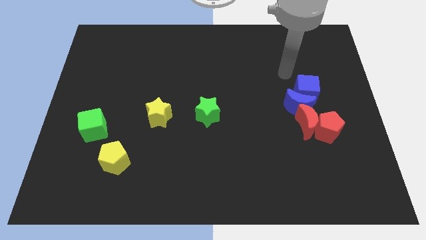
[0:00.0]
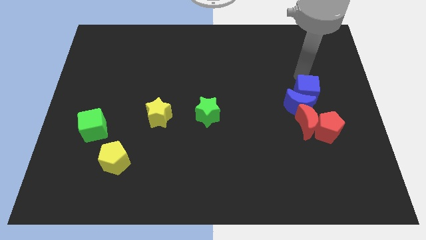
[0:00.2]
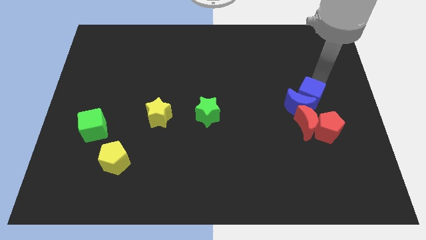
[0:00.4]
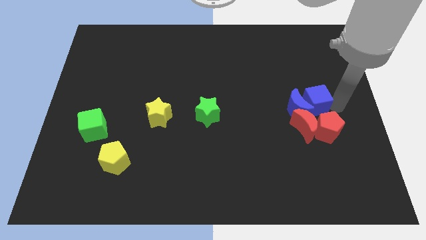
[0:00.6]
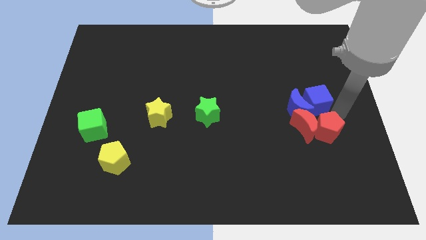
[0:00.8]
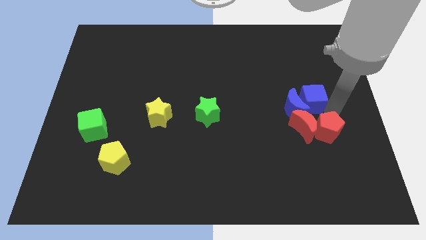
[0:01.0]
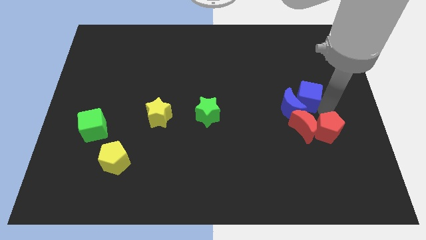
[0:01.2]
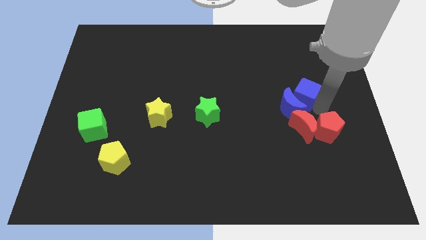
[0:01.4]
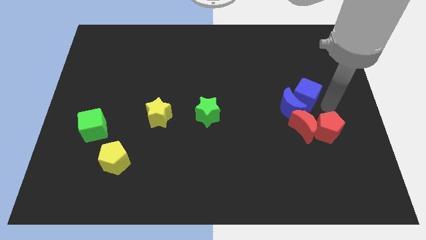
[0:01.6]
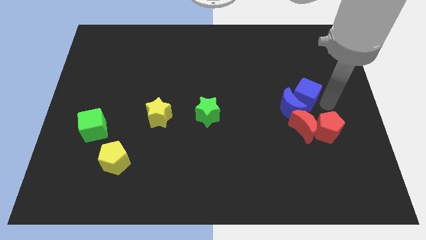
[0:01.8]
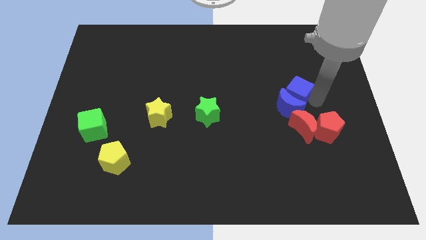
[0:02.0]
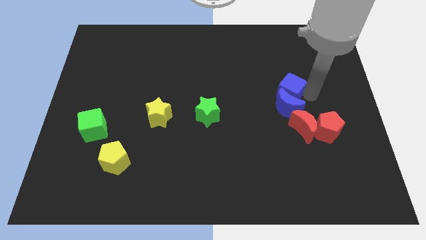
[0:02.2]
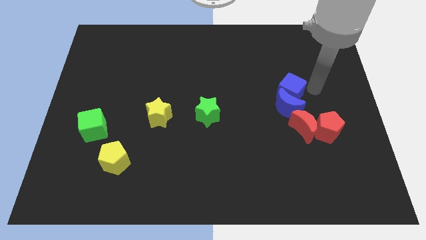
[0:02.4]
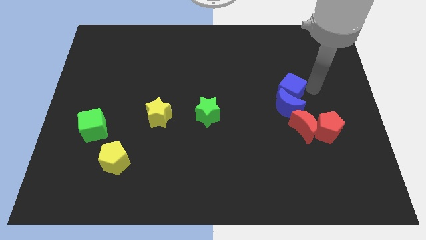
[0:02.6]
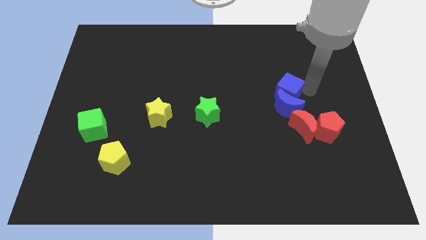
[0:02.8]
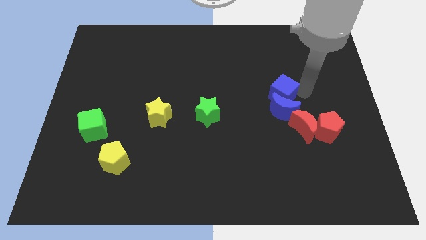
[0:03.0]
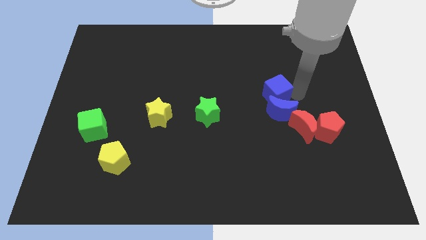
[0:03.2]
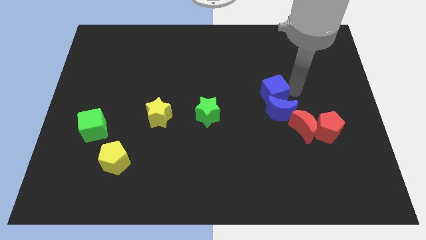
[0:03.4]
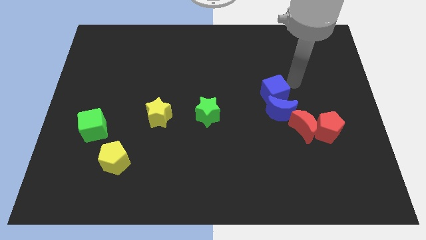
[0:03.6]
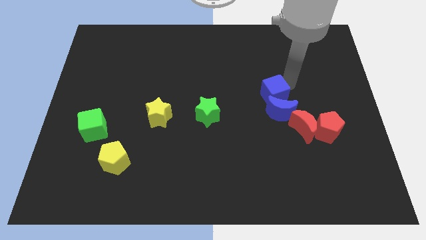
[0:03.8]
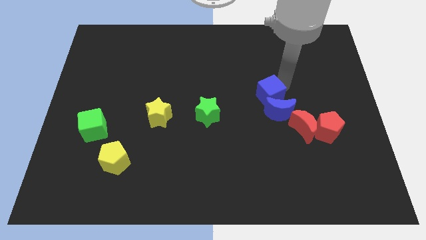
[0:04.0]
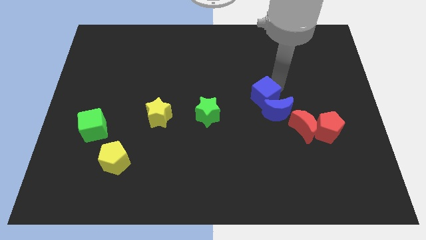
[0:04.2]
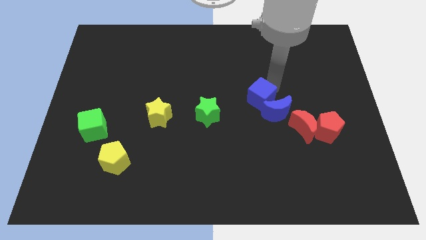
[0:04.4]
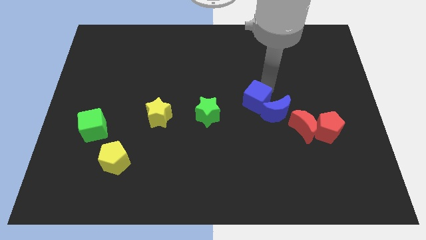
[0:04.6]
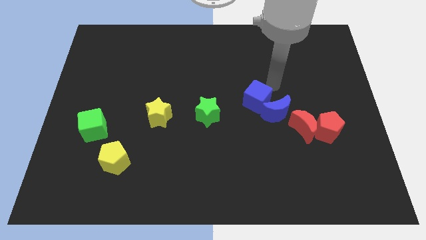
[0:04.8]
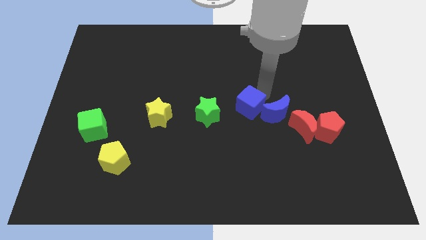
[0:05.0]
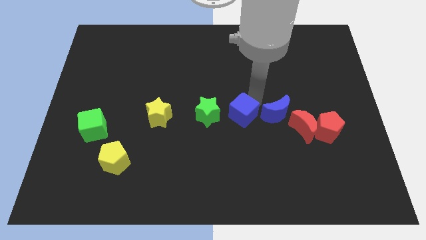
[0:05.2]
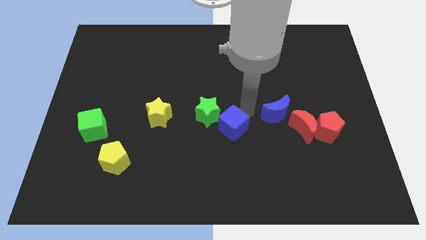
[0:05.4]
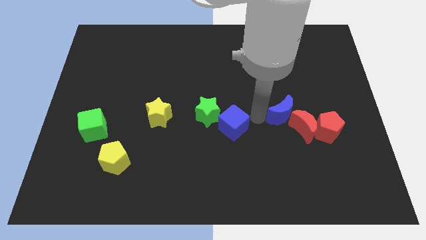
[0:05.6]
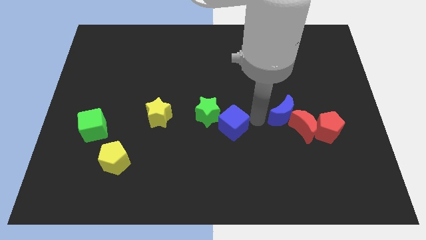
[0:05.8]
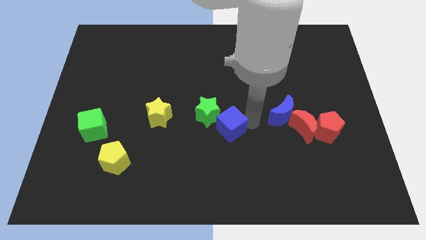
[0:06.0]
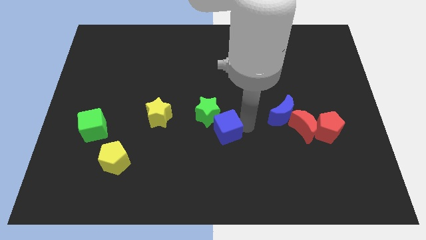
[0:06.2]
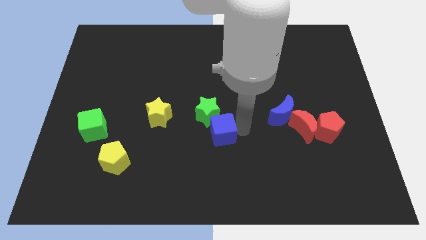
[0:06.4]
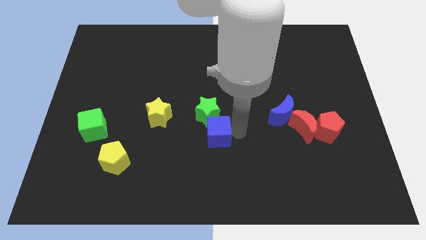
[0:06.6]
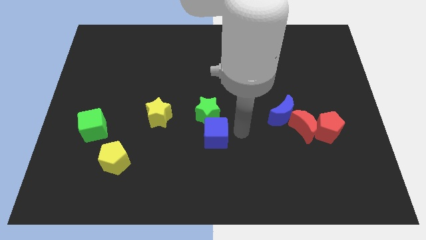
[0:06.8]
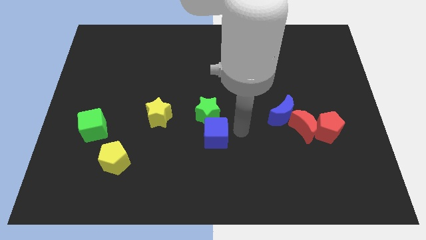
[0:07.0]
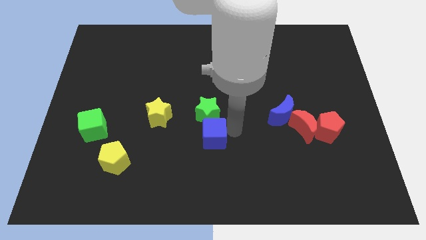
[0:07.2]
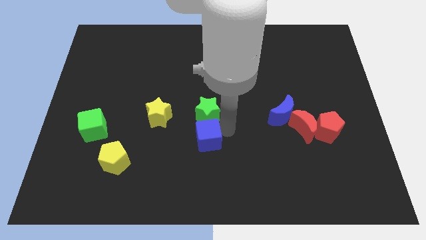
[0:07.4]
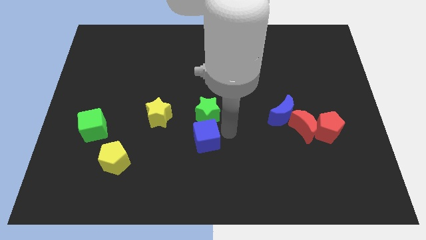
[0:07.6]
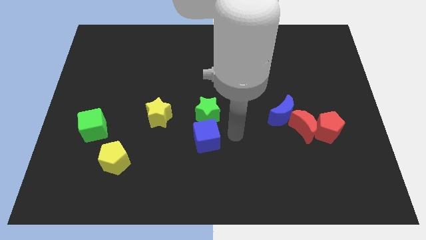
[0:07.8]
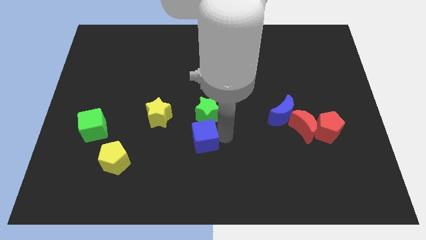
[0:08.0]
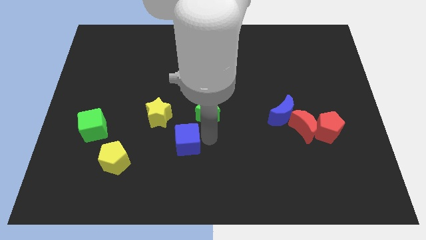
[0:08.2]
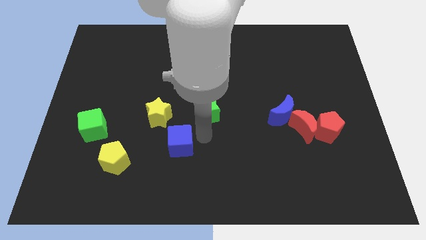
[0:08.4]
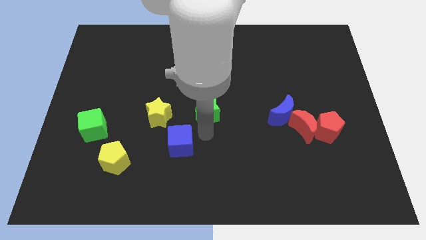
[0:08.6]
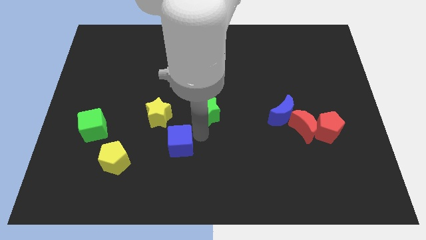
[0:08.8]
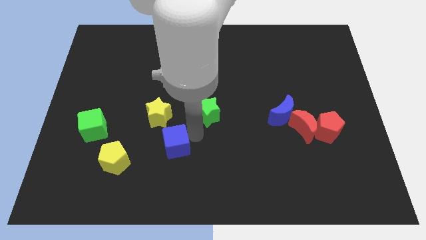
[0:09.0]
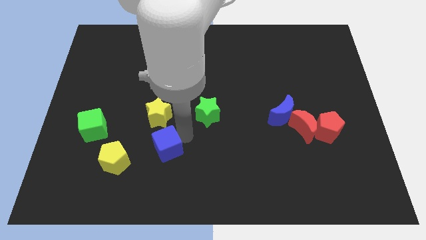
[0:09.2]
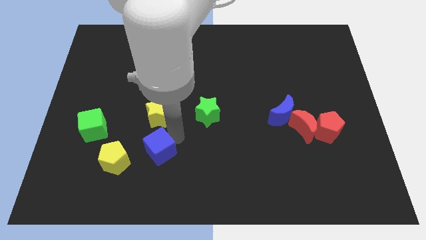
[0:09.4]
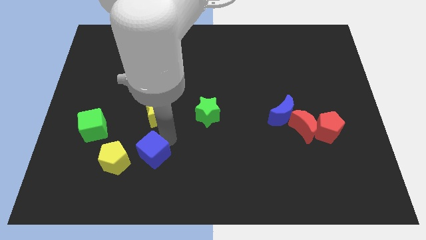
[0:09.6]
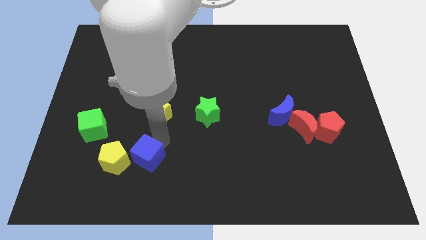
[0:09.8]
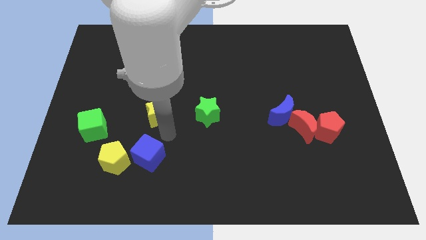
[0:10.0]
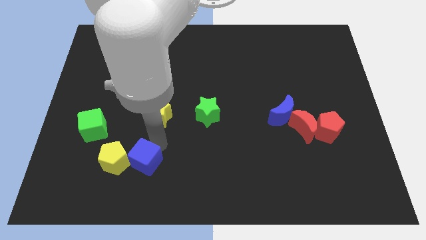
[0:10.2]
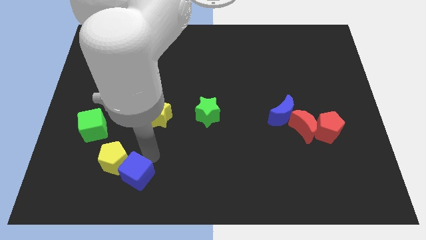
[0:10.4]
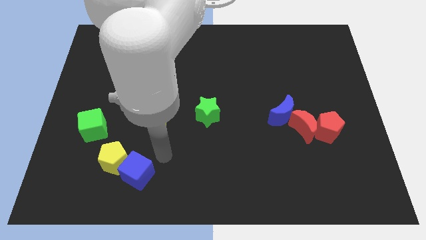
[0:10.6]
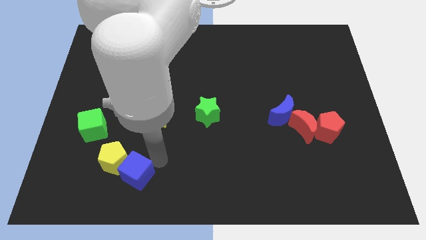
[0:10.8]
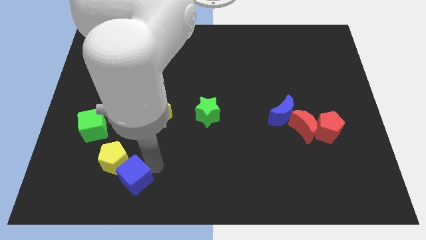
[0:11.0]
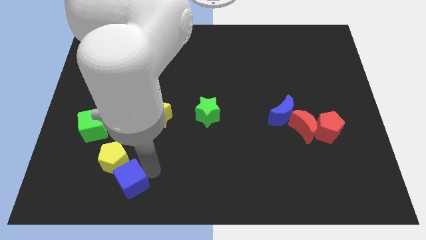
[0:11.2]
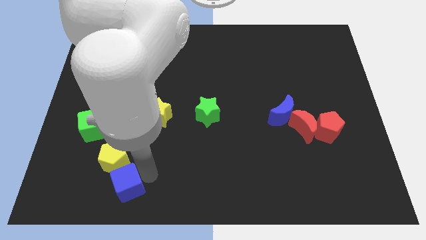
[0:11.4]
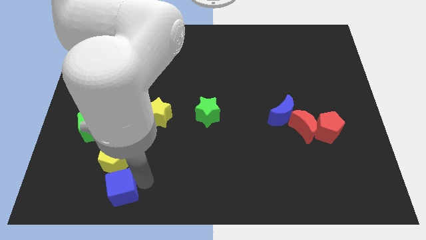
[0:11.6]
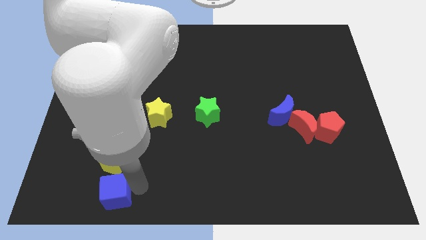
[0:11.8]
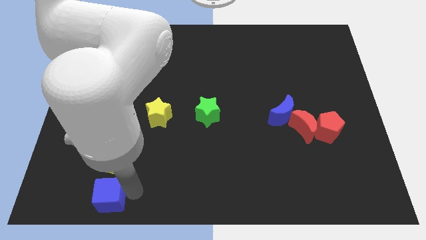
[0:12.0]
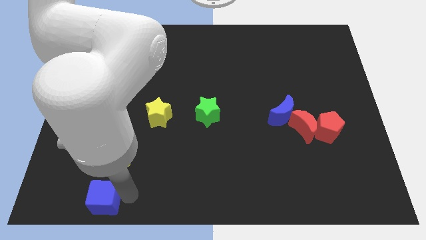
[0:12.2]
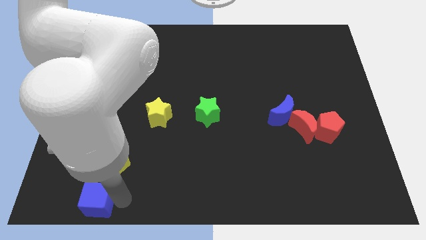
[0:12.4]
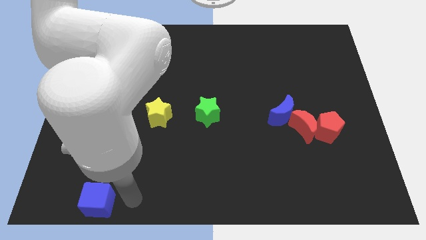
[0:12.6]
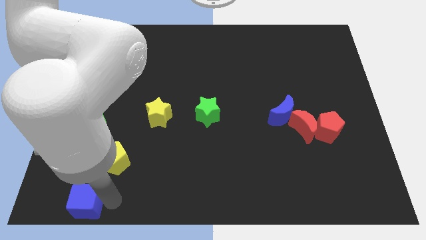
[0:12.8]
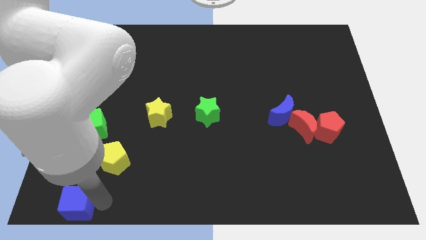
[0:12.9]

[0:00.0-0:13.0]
put the blue cube to the bottom left

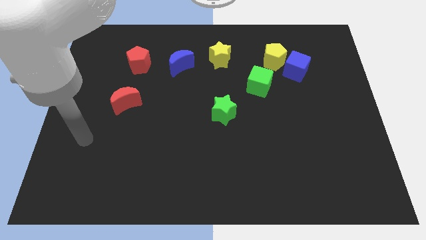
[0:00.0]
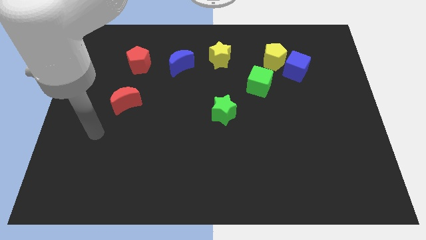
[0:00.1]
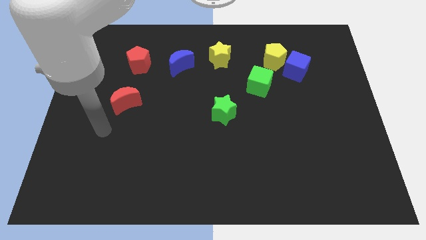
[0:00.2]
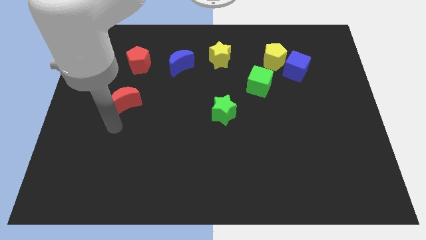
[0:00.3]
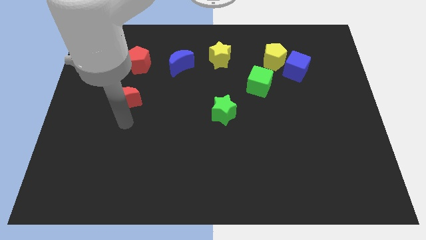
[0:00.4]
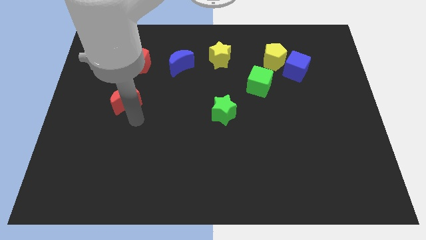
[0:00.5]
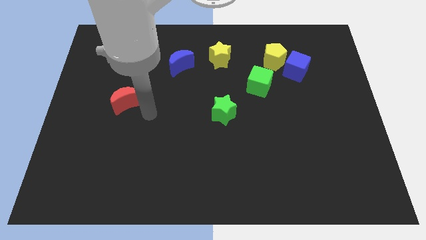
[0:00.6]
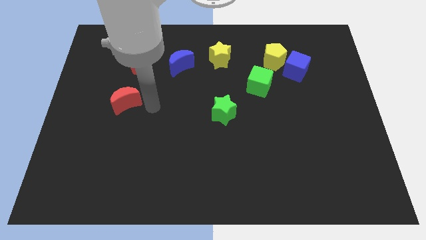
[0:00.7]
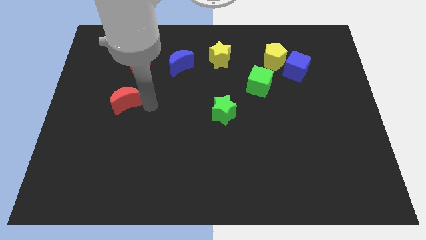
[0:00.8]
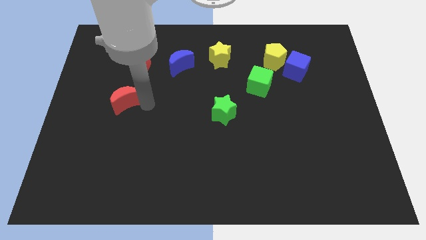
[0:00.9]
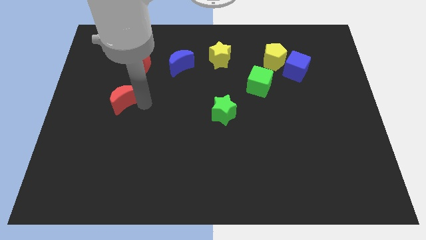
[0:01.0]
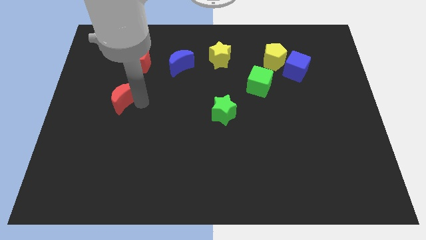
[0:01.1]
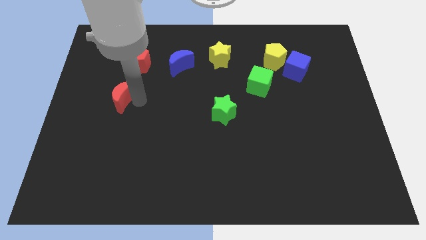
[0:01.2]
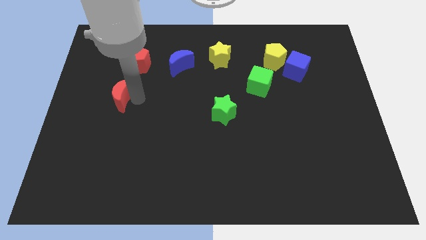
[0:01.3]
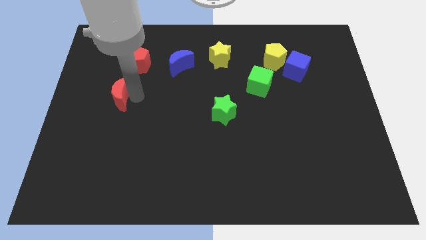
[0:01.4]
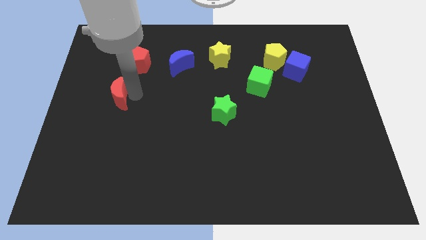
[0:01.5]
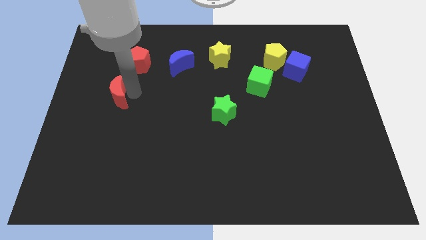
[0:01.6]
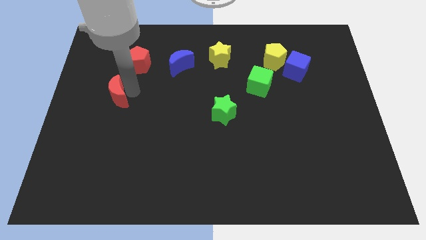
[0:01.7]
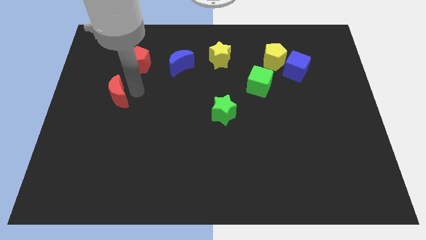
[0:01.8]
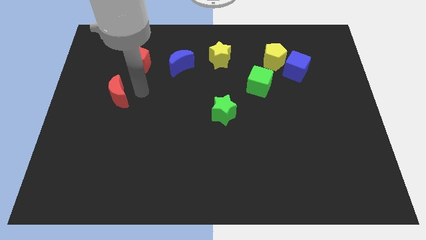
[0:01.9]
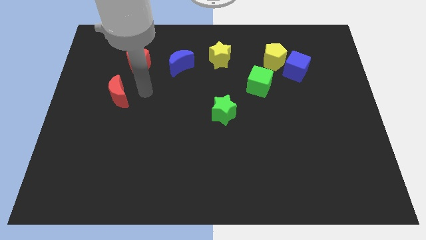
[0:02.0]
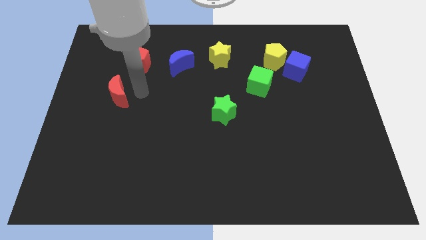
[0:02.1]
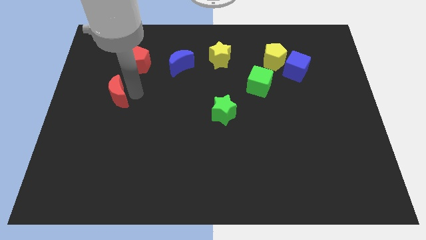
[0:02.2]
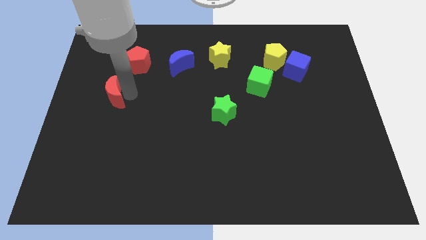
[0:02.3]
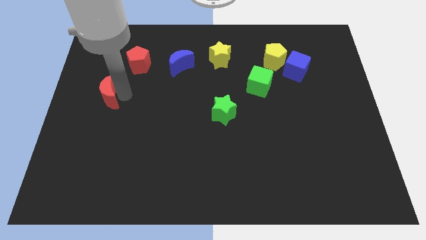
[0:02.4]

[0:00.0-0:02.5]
put the red moon to the left side
